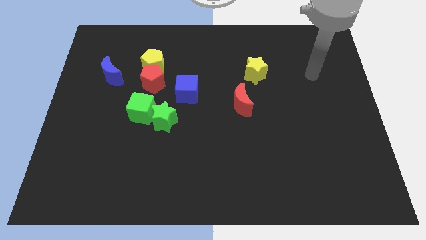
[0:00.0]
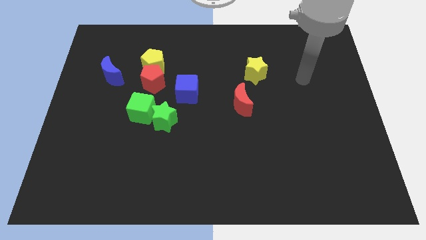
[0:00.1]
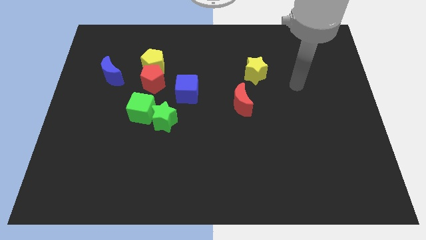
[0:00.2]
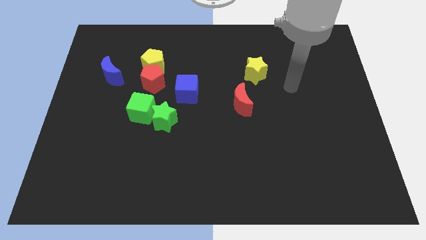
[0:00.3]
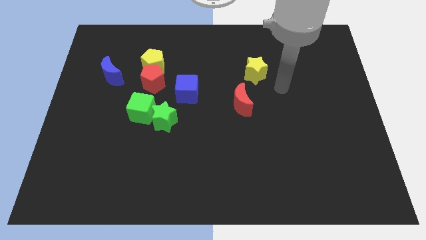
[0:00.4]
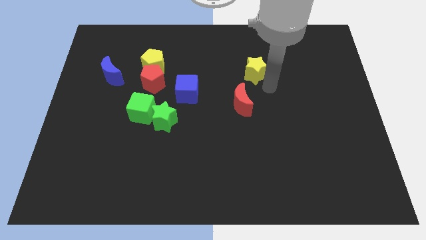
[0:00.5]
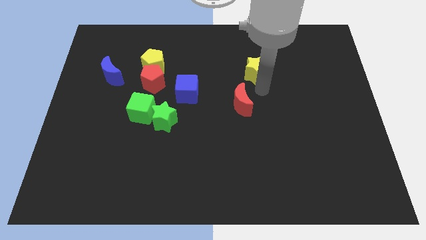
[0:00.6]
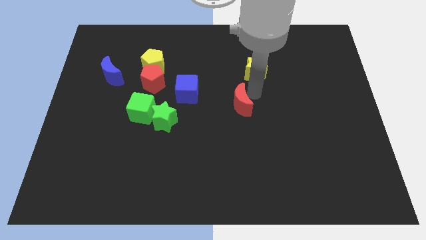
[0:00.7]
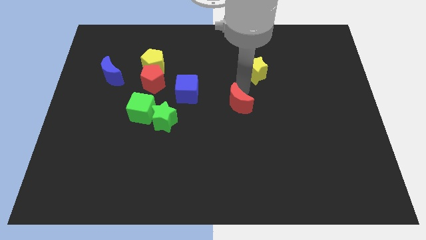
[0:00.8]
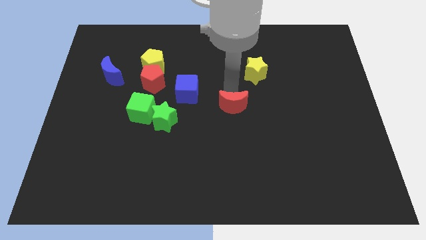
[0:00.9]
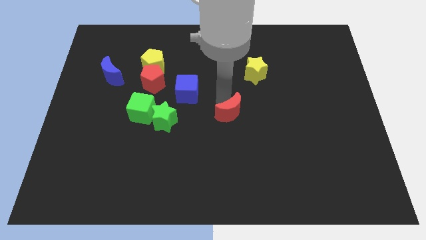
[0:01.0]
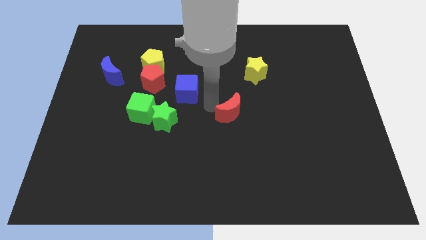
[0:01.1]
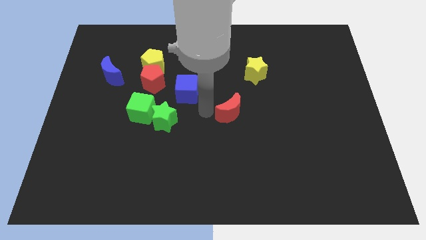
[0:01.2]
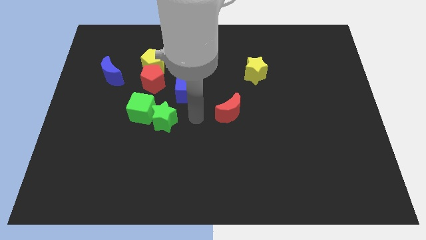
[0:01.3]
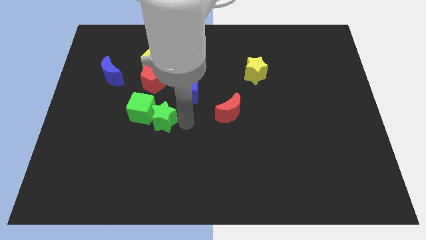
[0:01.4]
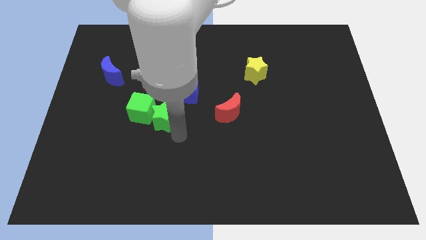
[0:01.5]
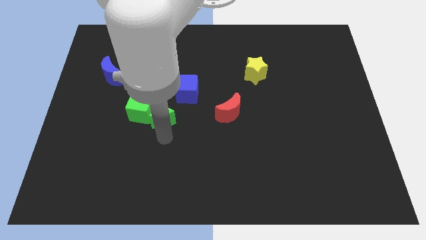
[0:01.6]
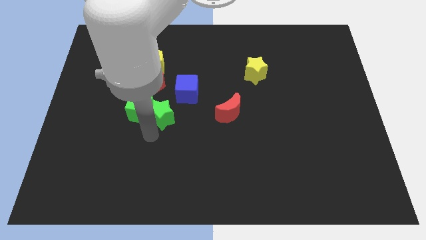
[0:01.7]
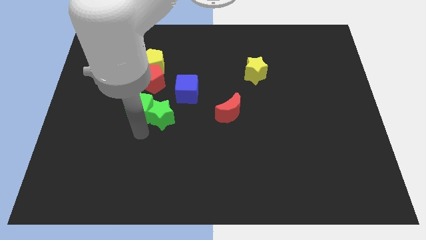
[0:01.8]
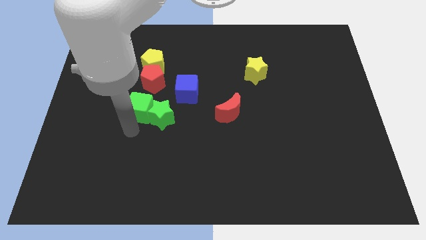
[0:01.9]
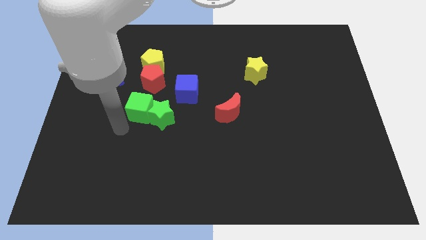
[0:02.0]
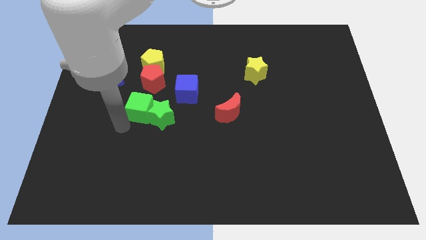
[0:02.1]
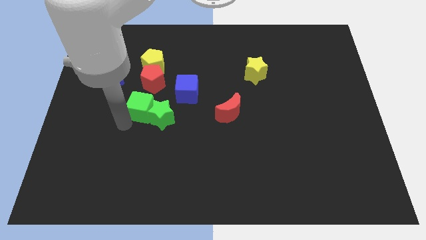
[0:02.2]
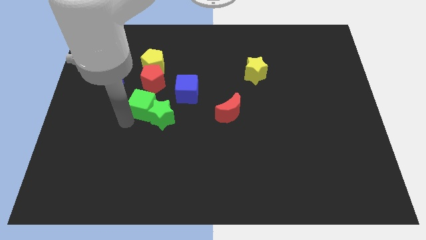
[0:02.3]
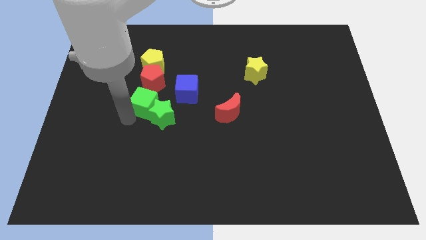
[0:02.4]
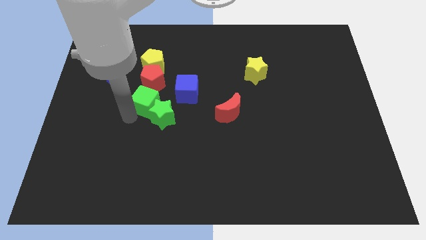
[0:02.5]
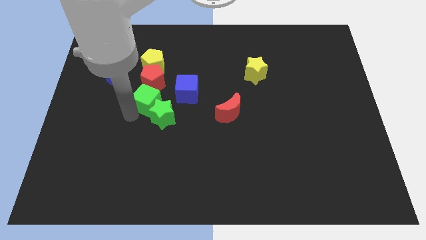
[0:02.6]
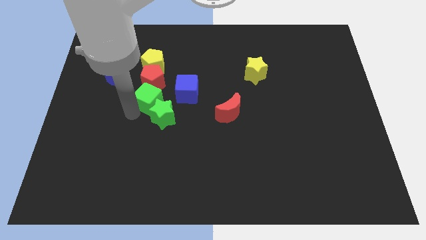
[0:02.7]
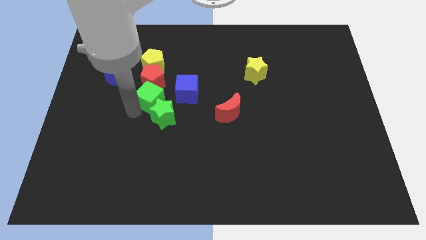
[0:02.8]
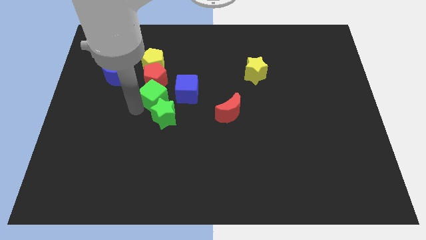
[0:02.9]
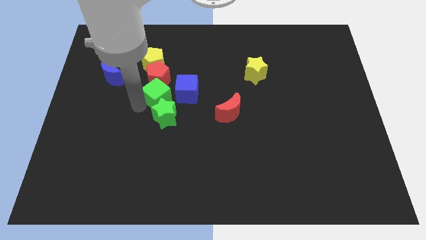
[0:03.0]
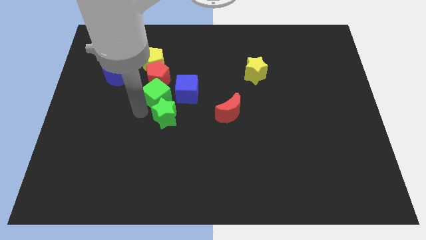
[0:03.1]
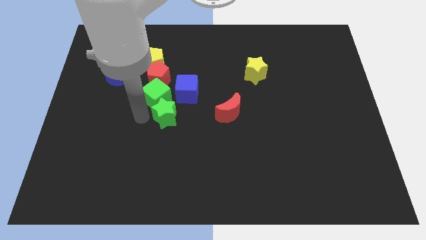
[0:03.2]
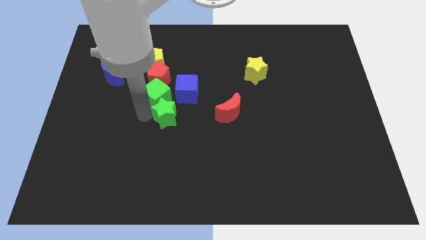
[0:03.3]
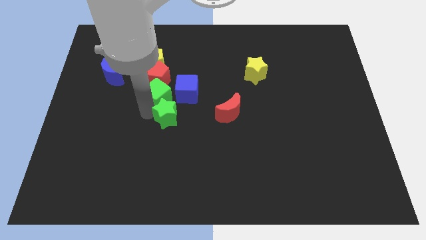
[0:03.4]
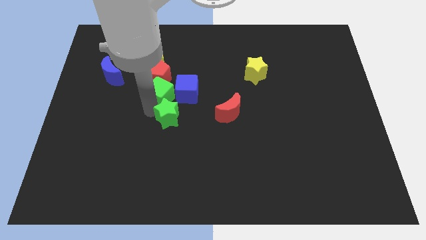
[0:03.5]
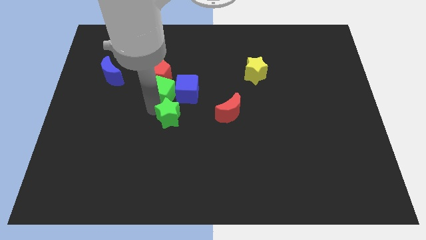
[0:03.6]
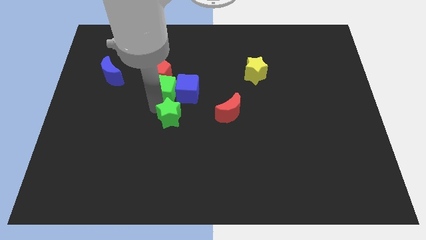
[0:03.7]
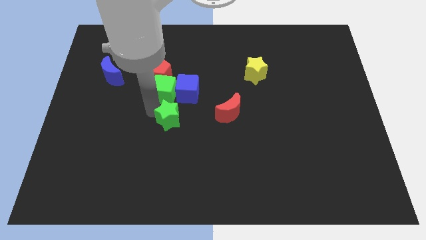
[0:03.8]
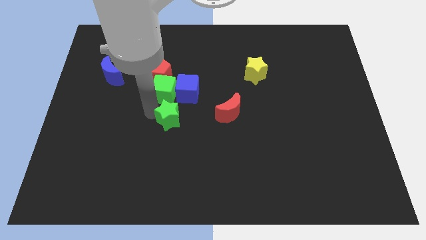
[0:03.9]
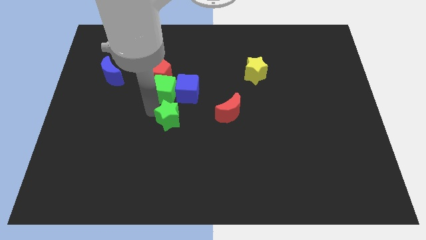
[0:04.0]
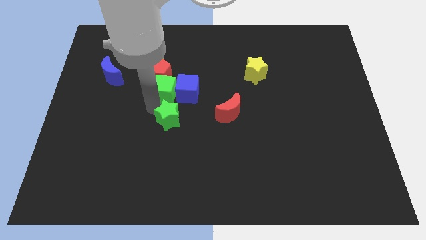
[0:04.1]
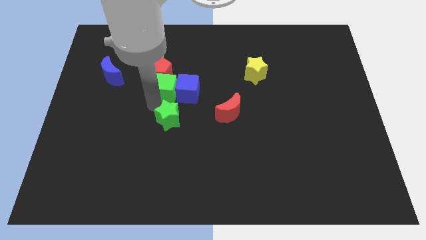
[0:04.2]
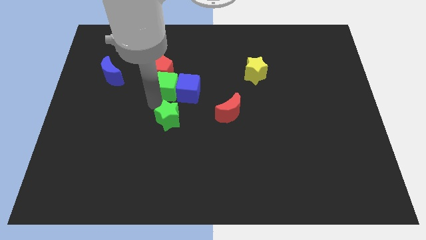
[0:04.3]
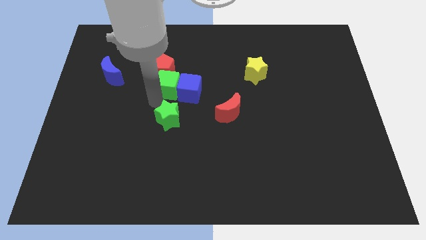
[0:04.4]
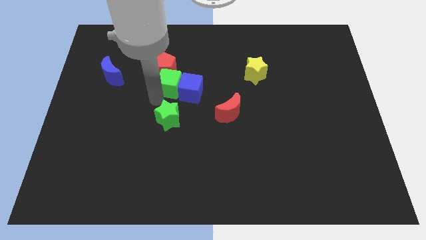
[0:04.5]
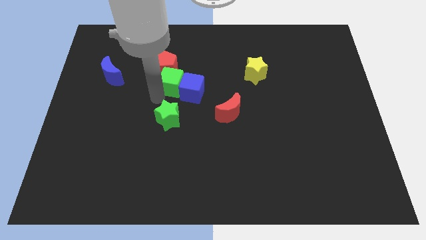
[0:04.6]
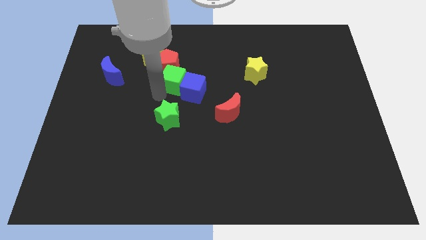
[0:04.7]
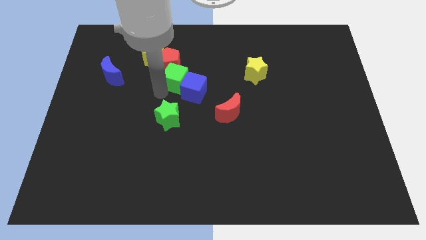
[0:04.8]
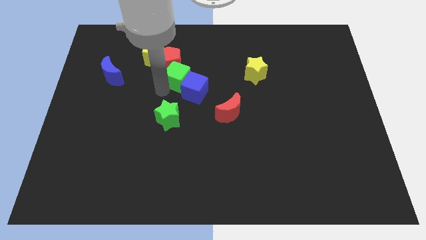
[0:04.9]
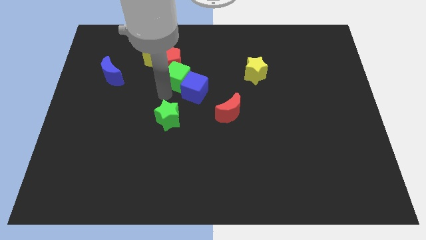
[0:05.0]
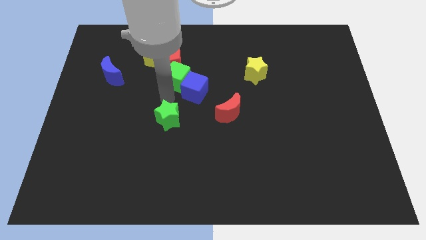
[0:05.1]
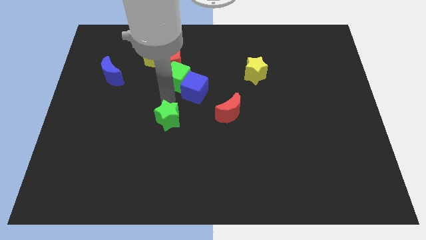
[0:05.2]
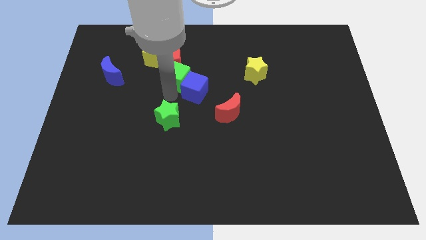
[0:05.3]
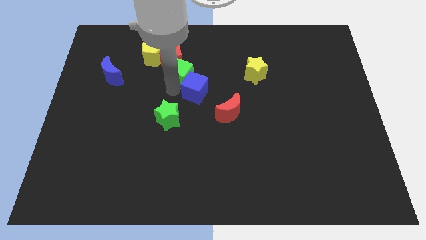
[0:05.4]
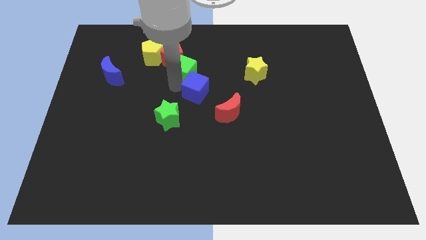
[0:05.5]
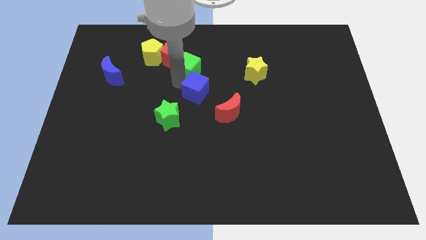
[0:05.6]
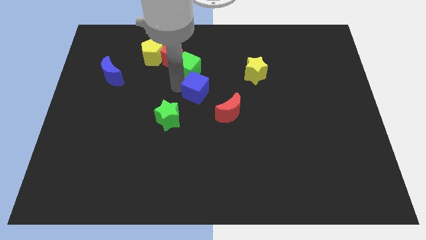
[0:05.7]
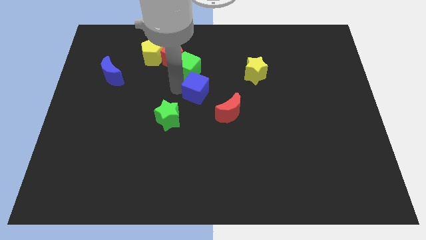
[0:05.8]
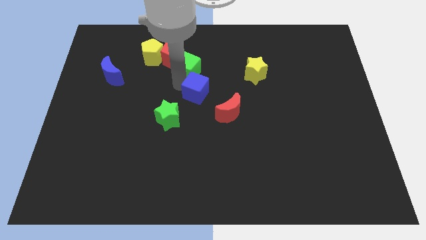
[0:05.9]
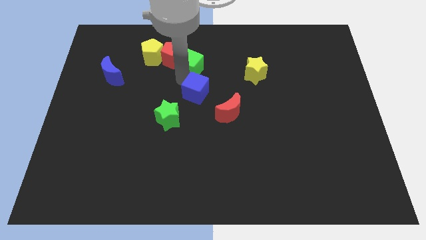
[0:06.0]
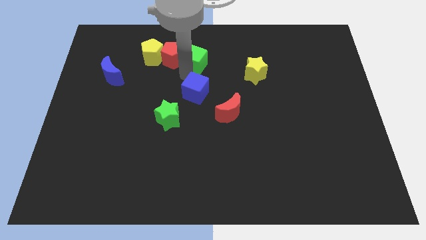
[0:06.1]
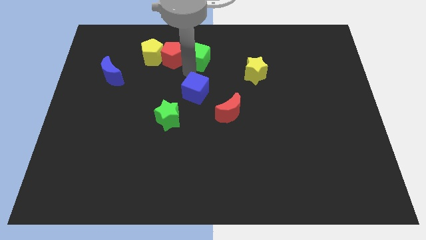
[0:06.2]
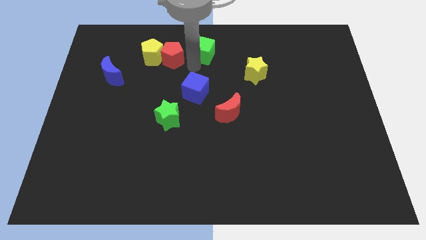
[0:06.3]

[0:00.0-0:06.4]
move the green cube to the towards your base
